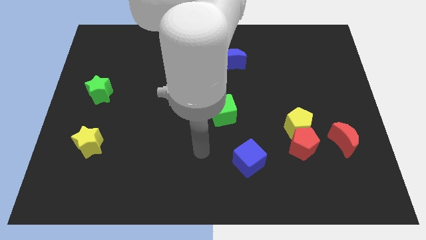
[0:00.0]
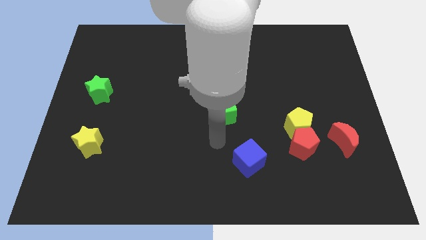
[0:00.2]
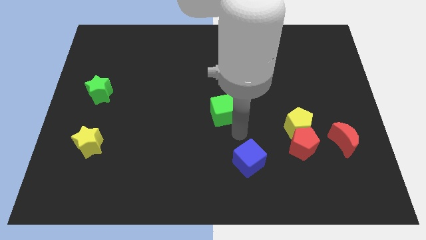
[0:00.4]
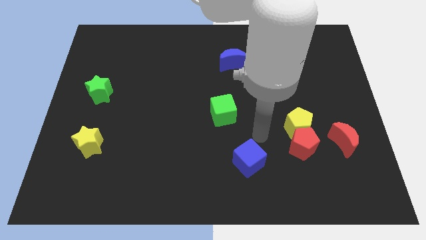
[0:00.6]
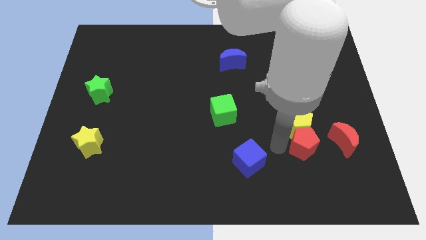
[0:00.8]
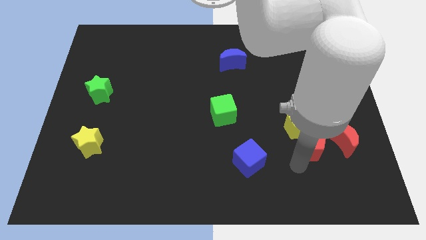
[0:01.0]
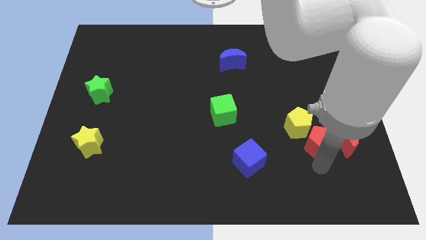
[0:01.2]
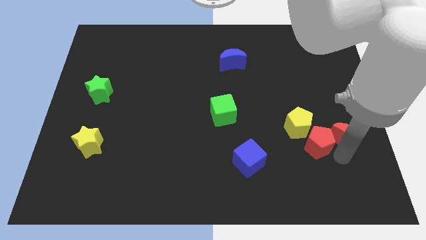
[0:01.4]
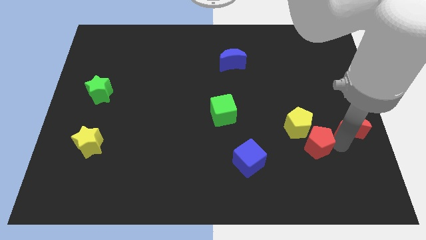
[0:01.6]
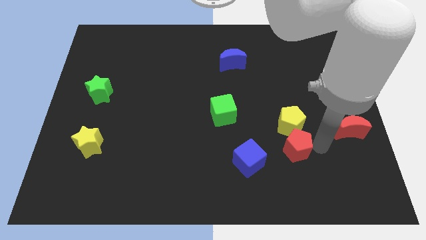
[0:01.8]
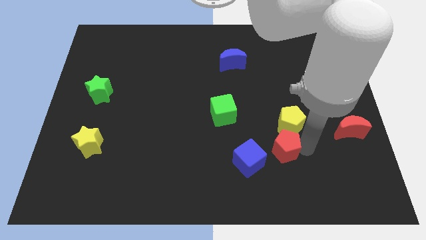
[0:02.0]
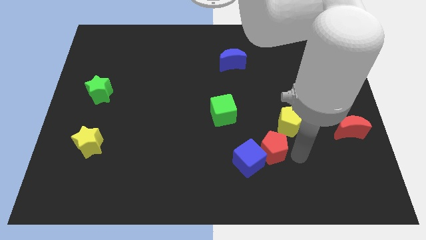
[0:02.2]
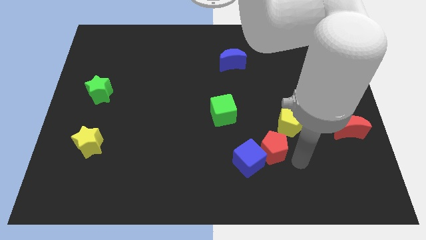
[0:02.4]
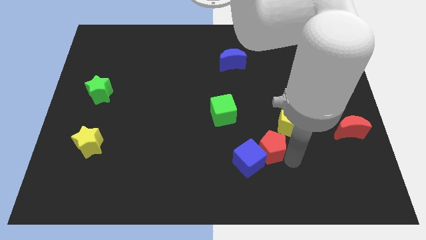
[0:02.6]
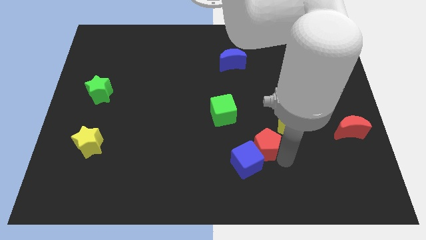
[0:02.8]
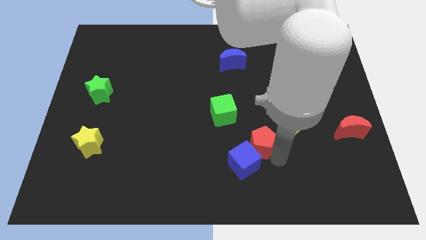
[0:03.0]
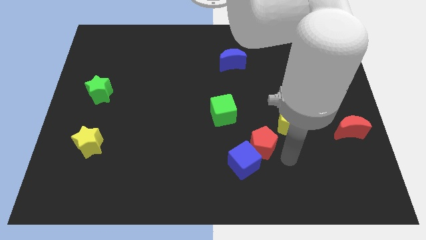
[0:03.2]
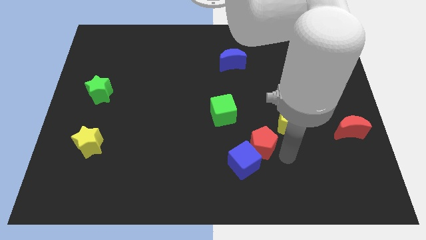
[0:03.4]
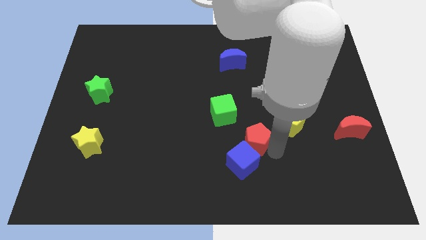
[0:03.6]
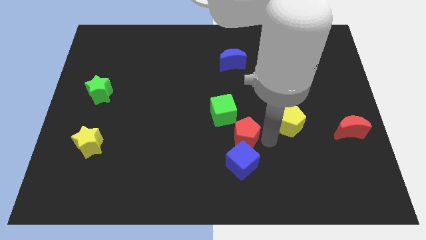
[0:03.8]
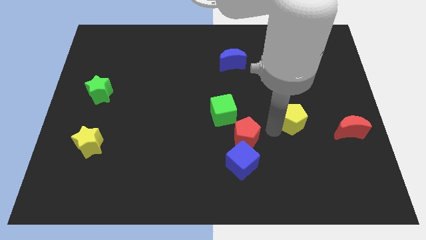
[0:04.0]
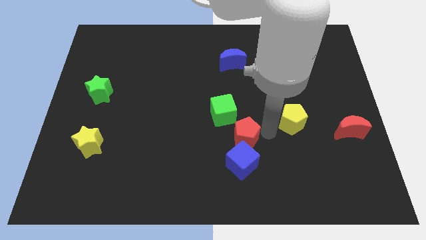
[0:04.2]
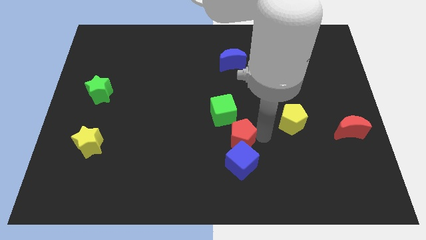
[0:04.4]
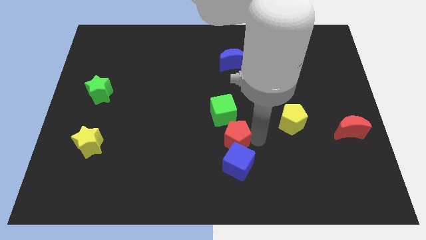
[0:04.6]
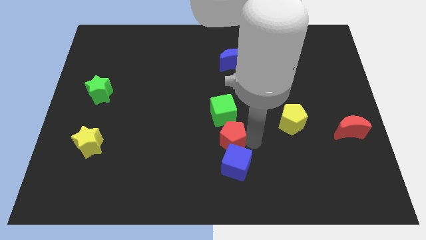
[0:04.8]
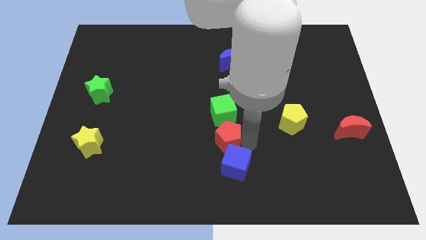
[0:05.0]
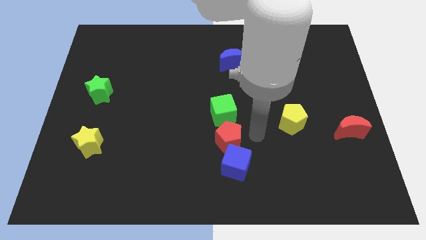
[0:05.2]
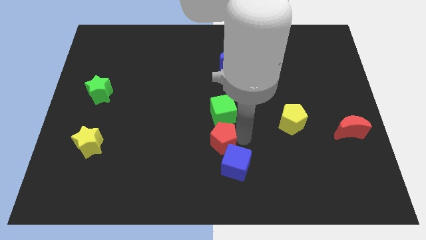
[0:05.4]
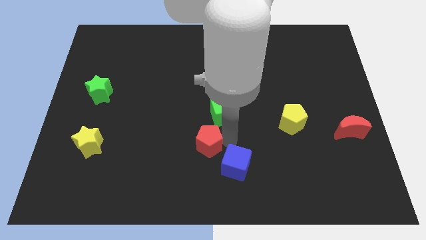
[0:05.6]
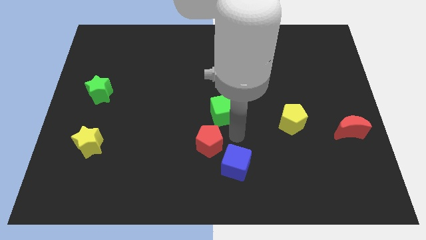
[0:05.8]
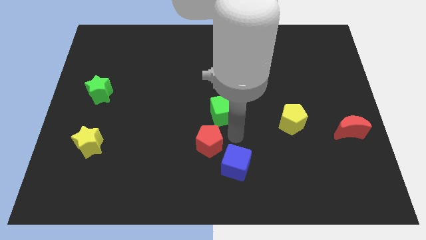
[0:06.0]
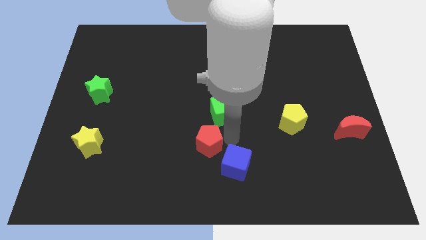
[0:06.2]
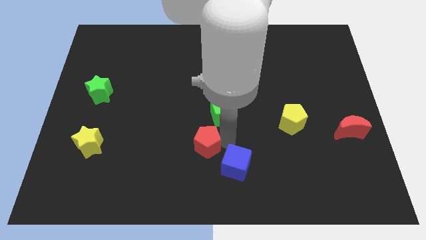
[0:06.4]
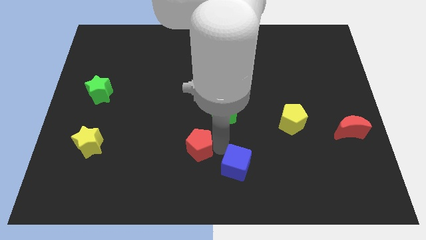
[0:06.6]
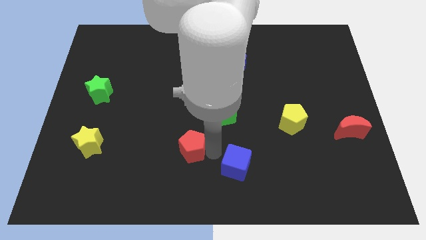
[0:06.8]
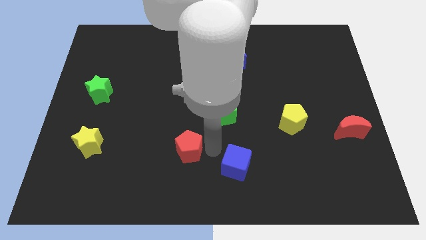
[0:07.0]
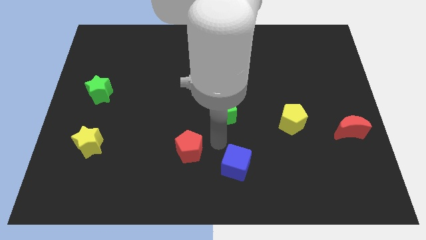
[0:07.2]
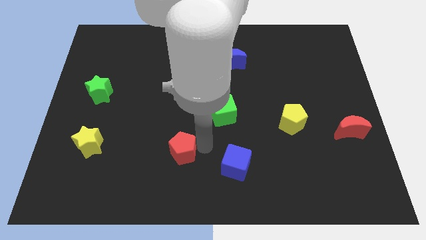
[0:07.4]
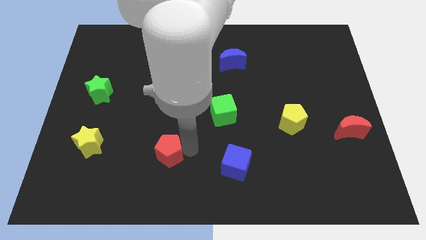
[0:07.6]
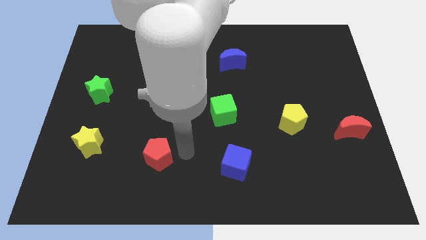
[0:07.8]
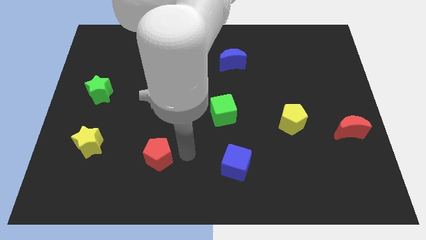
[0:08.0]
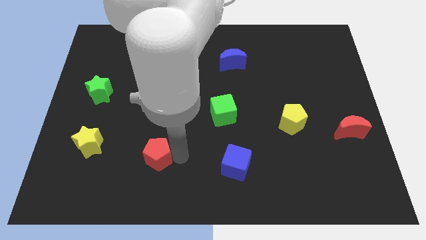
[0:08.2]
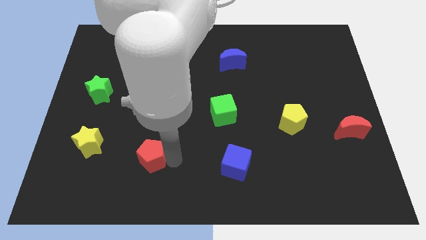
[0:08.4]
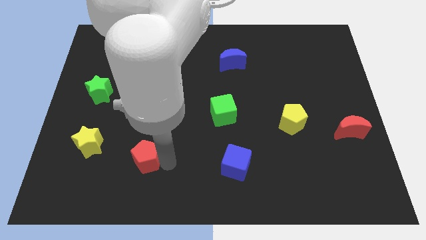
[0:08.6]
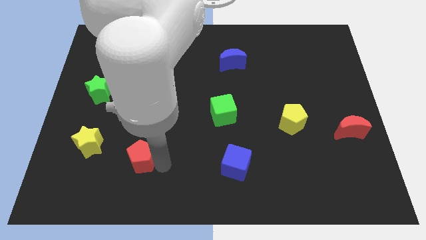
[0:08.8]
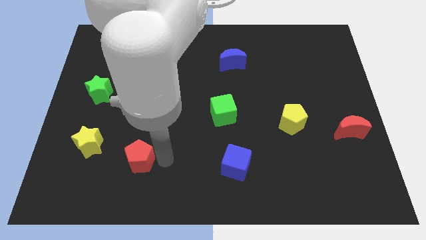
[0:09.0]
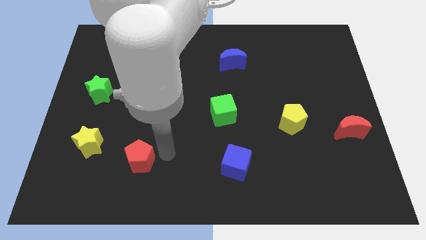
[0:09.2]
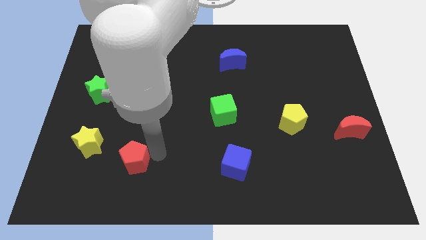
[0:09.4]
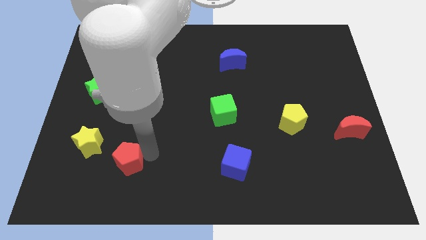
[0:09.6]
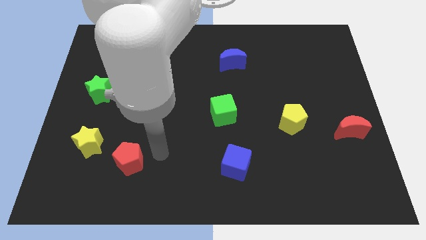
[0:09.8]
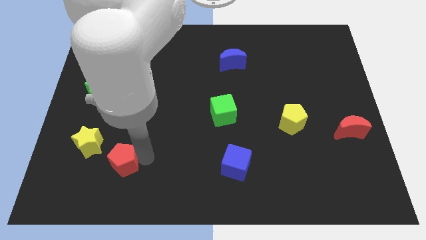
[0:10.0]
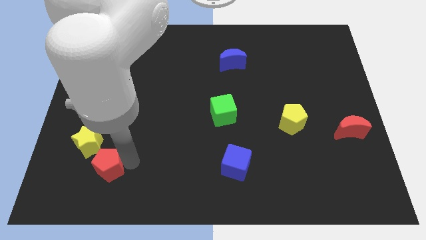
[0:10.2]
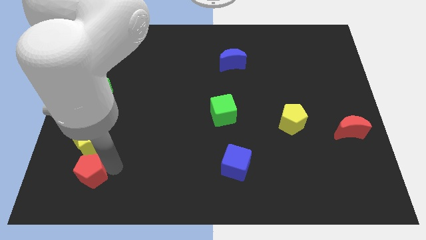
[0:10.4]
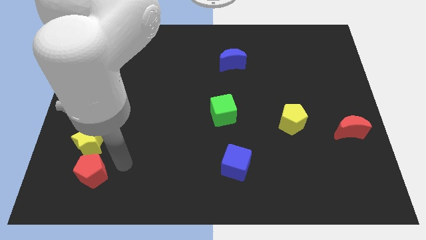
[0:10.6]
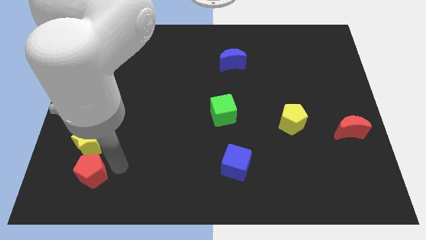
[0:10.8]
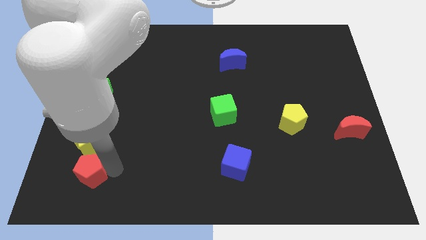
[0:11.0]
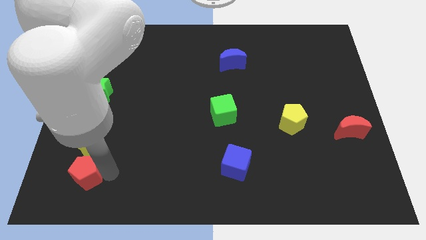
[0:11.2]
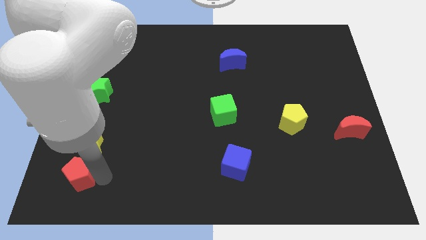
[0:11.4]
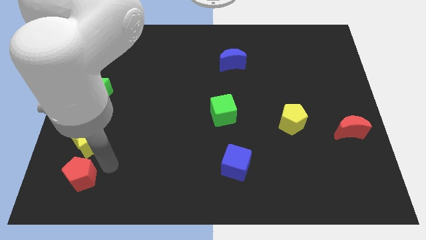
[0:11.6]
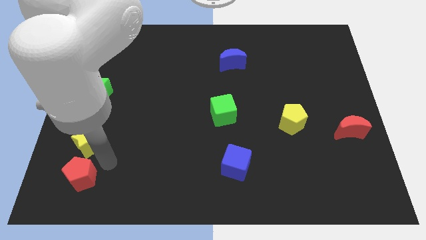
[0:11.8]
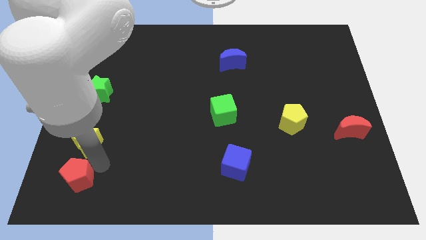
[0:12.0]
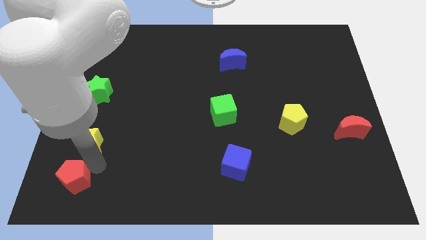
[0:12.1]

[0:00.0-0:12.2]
slide the red pentagon to the bottom left corner

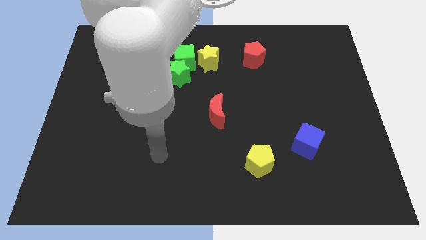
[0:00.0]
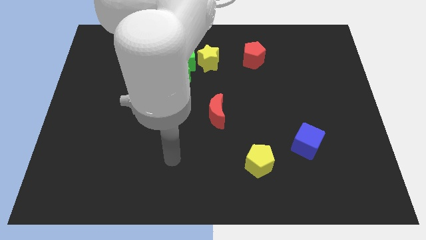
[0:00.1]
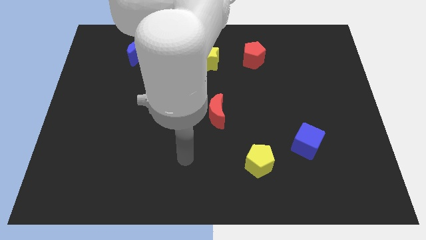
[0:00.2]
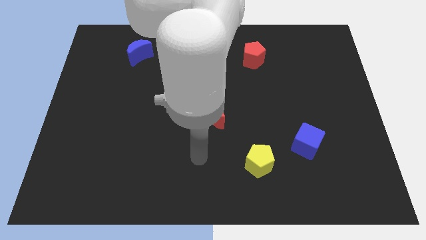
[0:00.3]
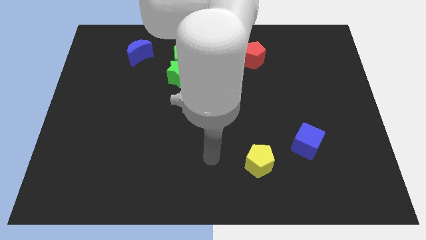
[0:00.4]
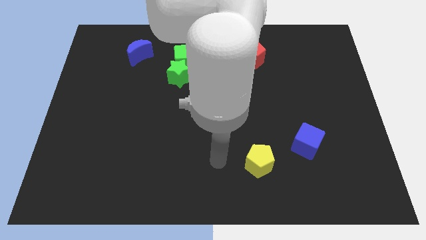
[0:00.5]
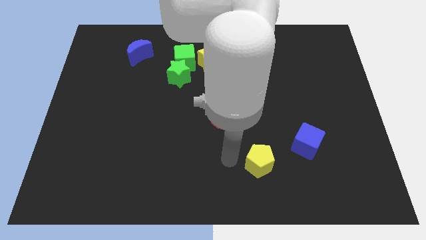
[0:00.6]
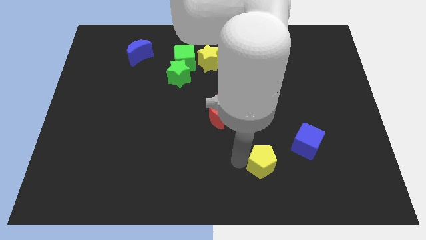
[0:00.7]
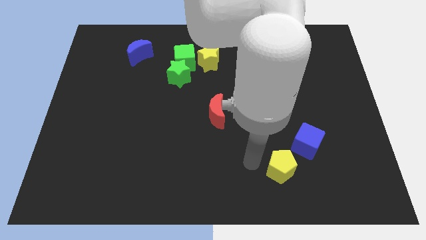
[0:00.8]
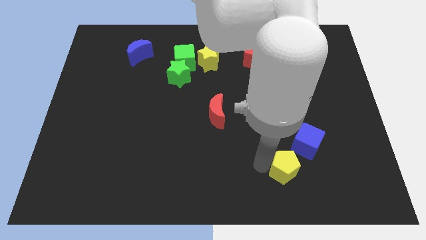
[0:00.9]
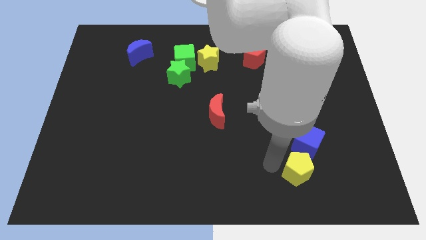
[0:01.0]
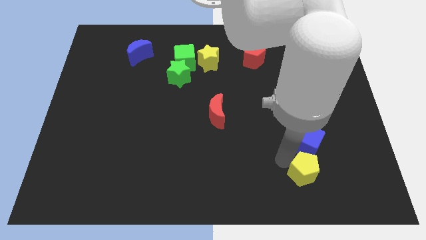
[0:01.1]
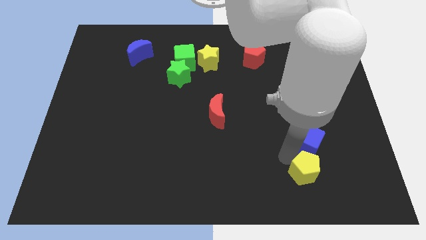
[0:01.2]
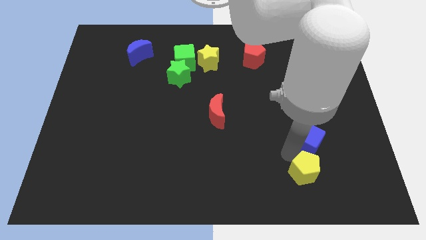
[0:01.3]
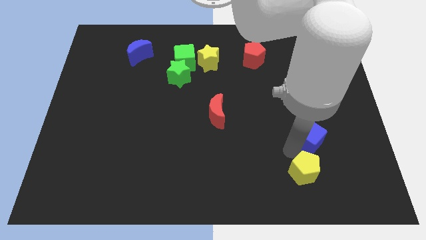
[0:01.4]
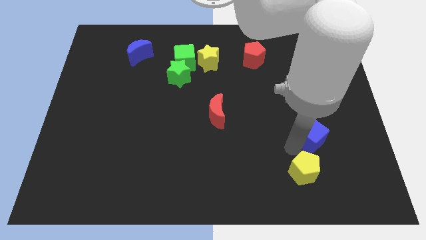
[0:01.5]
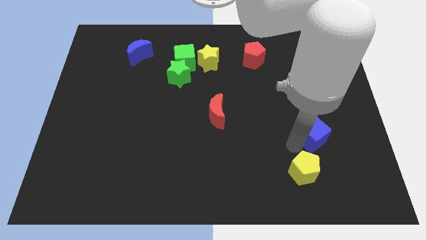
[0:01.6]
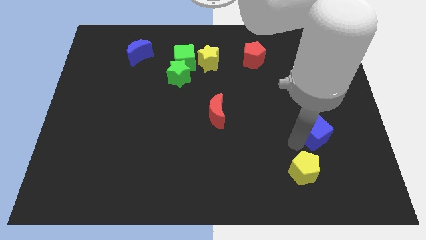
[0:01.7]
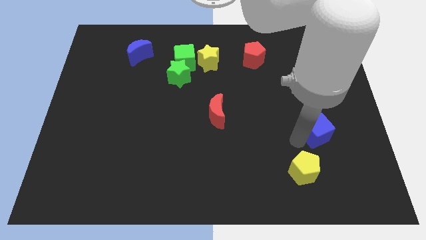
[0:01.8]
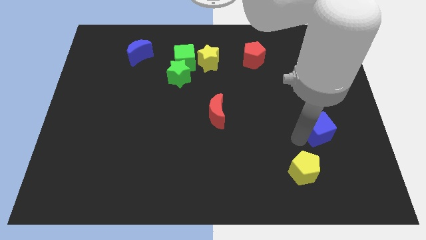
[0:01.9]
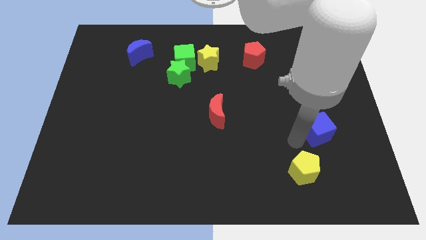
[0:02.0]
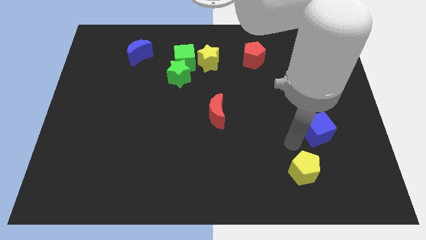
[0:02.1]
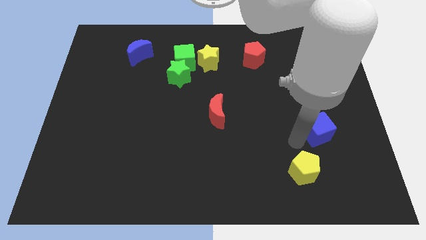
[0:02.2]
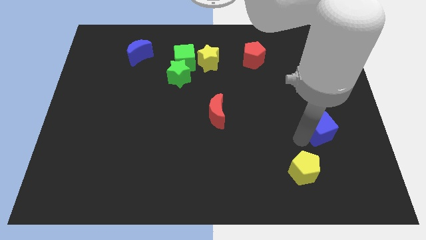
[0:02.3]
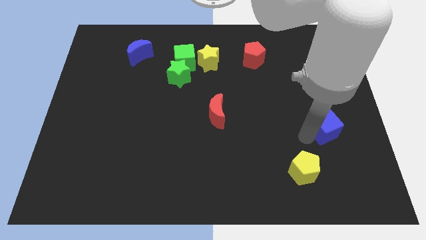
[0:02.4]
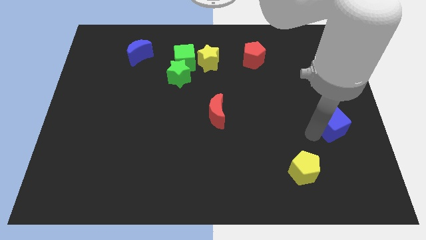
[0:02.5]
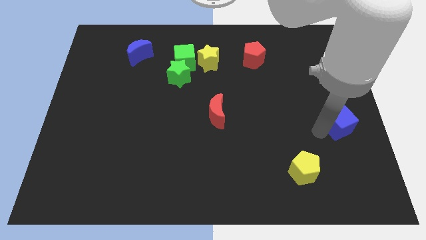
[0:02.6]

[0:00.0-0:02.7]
move the blue cube to the right side of the board
